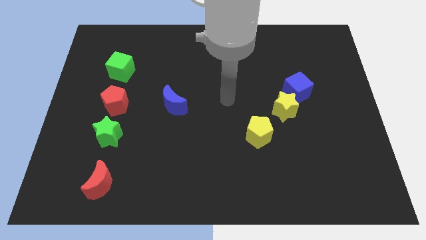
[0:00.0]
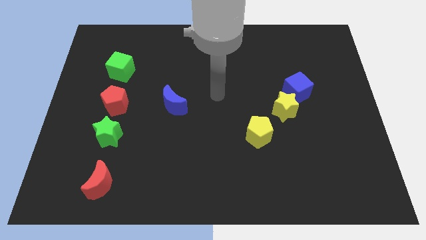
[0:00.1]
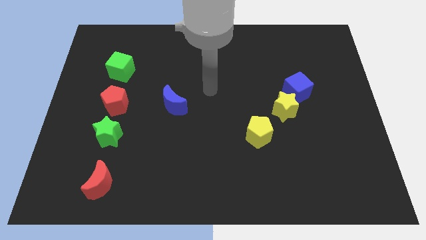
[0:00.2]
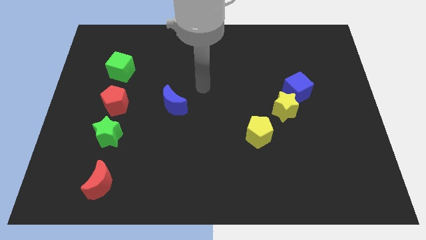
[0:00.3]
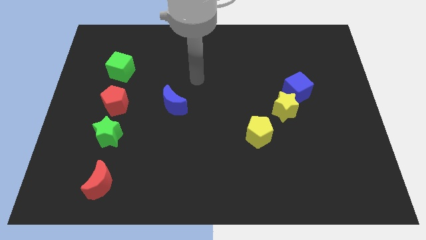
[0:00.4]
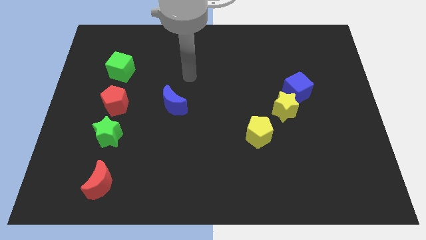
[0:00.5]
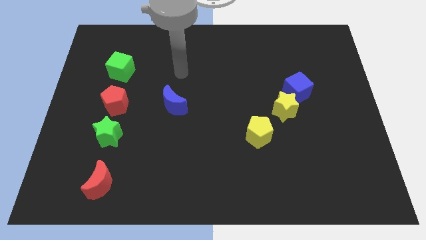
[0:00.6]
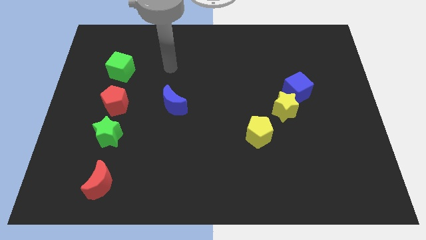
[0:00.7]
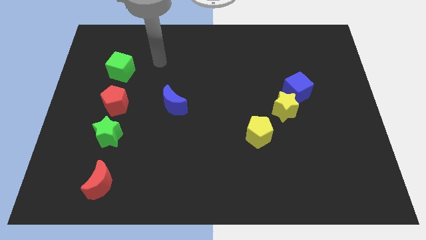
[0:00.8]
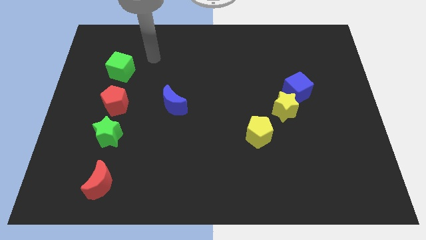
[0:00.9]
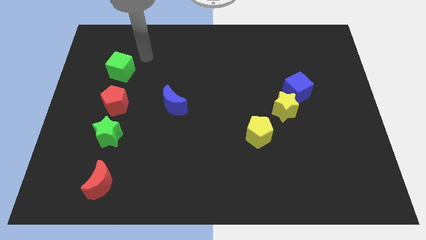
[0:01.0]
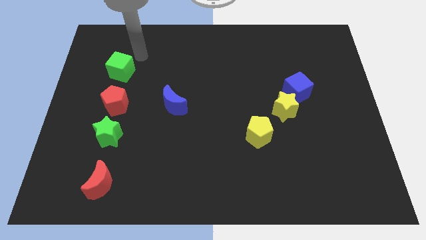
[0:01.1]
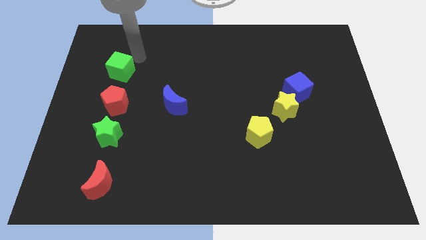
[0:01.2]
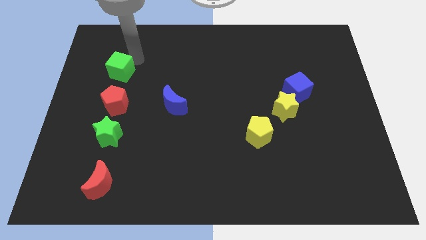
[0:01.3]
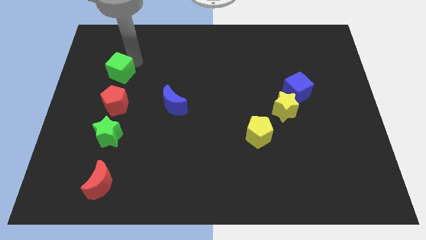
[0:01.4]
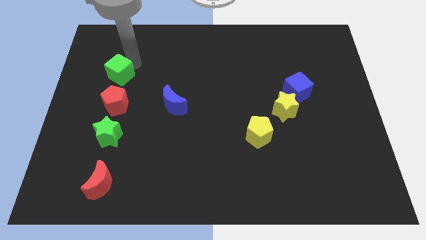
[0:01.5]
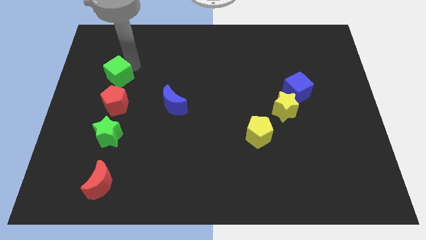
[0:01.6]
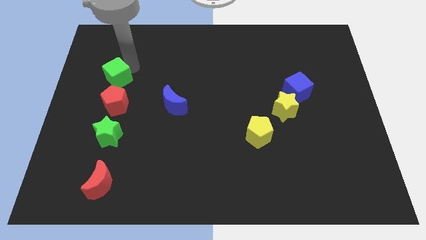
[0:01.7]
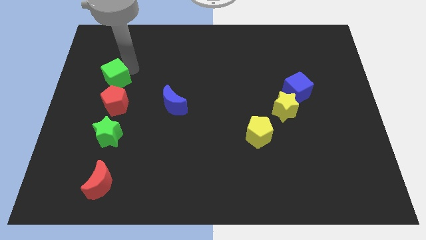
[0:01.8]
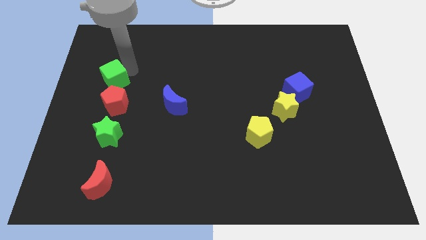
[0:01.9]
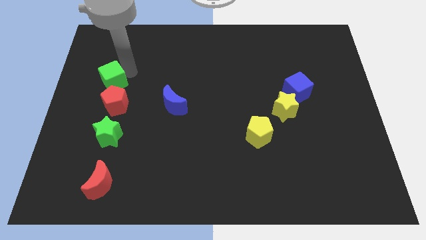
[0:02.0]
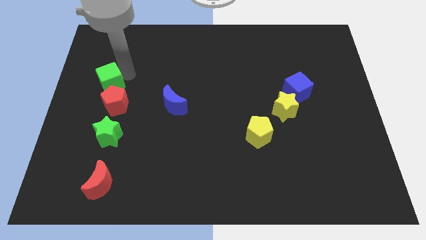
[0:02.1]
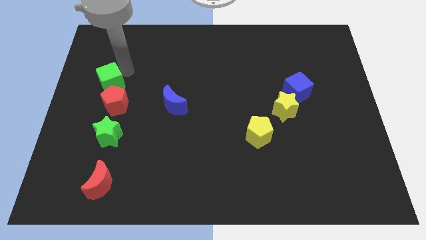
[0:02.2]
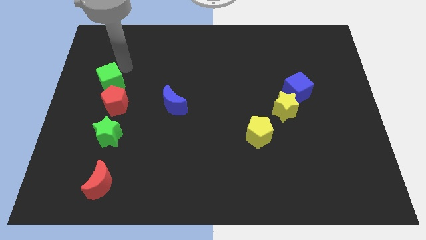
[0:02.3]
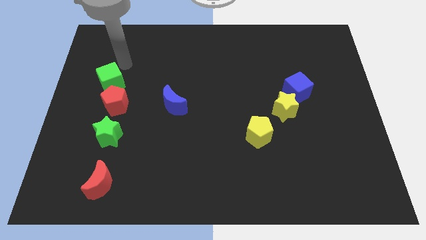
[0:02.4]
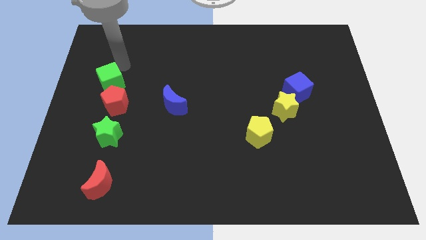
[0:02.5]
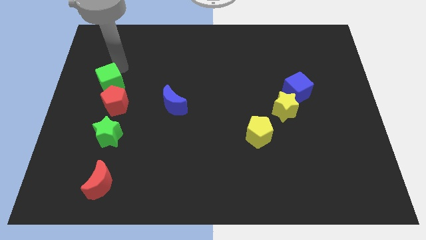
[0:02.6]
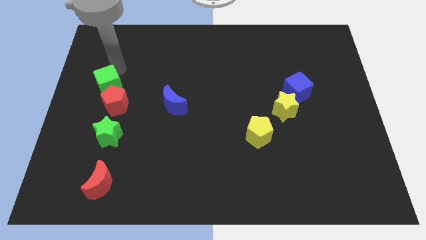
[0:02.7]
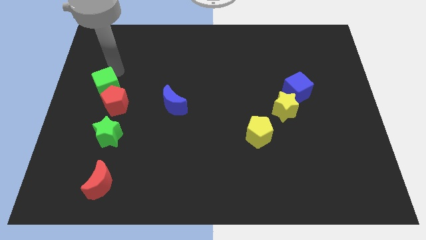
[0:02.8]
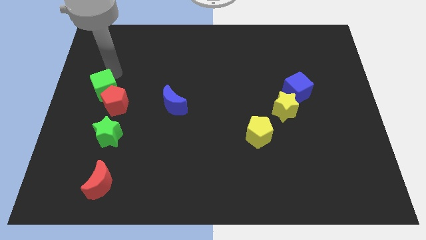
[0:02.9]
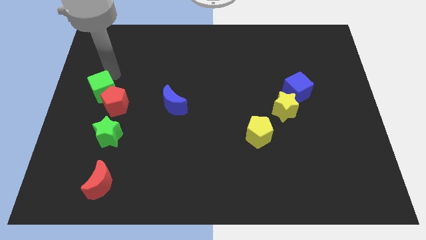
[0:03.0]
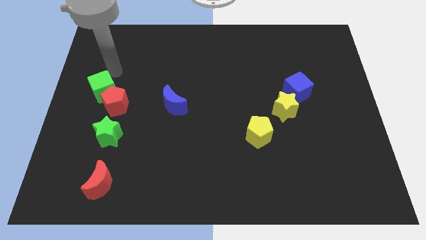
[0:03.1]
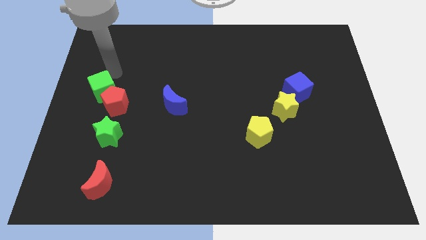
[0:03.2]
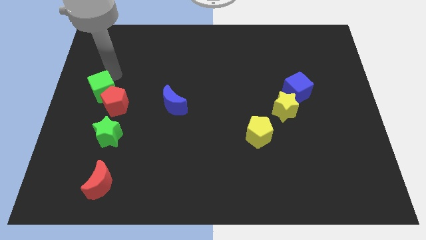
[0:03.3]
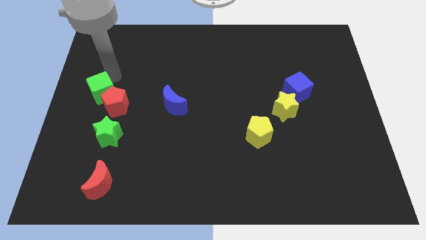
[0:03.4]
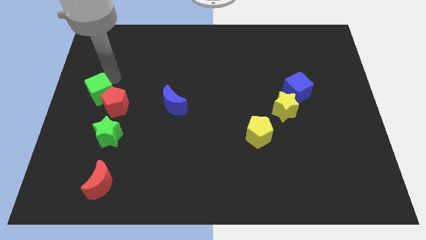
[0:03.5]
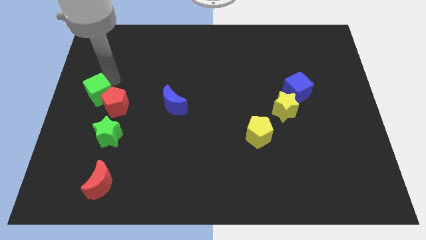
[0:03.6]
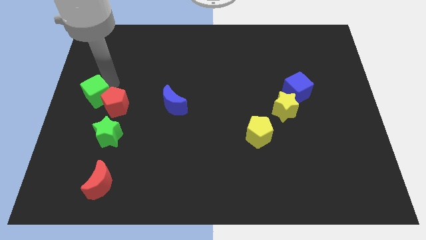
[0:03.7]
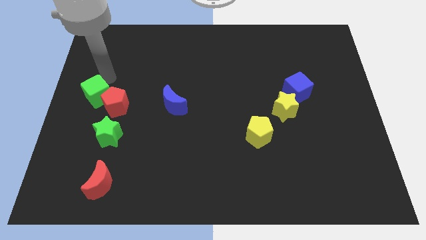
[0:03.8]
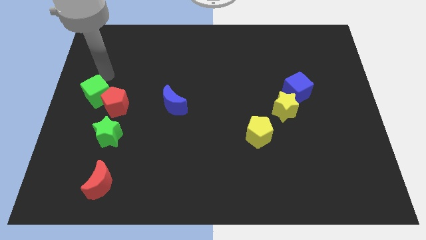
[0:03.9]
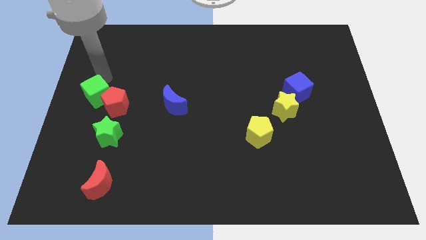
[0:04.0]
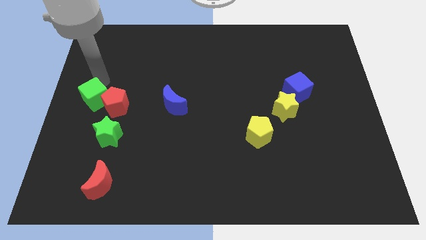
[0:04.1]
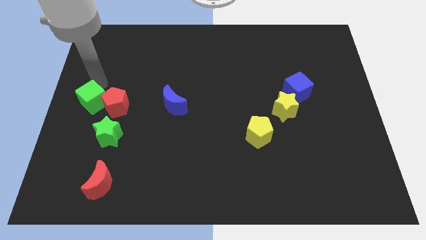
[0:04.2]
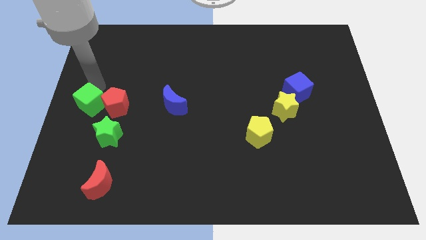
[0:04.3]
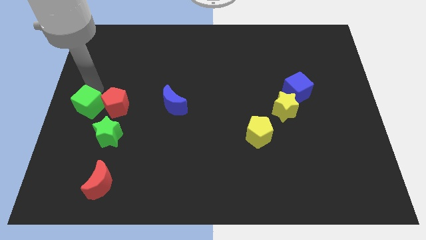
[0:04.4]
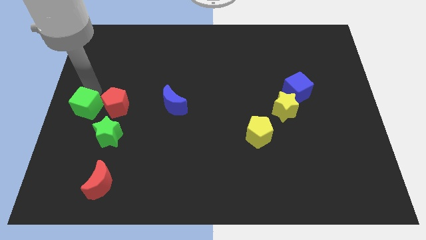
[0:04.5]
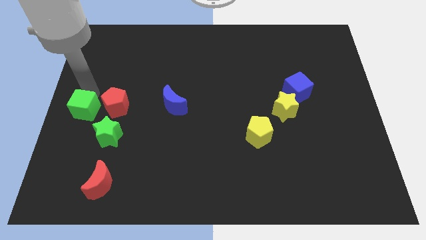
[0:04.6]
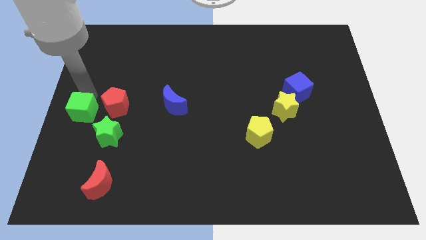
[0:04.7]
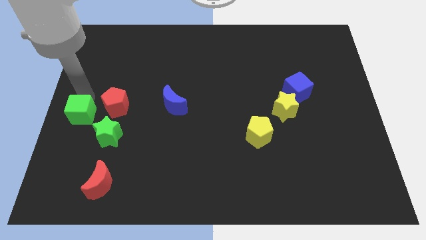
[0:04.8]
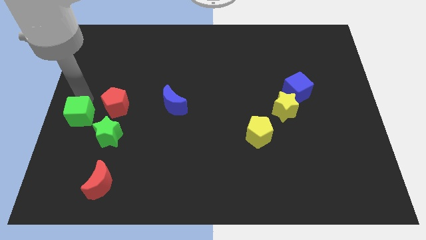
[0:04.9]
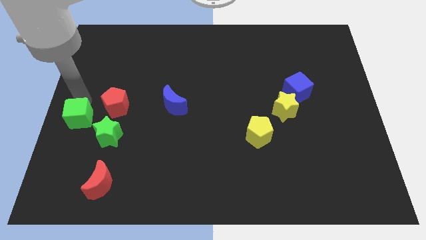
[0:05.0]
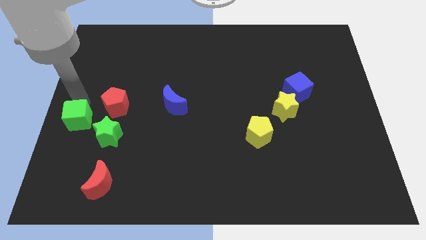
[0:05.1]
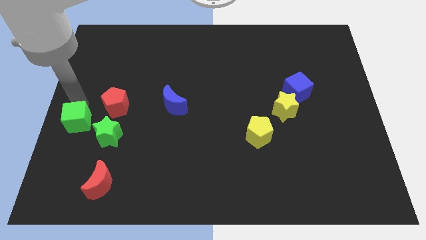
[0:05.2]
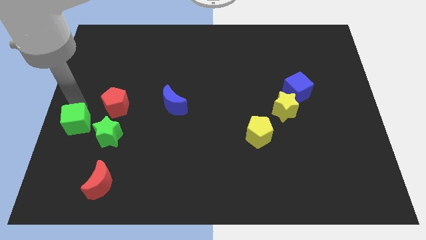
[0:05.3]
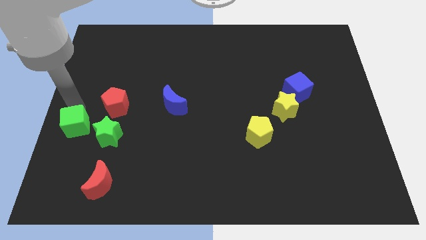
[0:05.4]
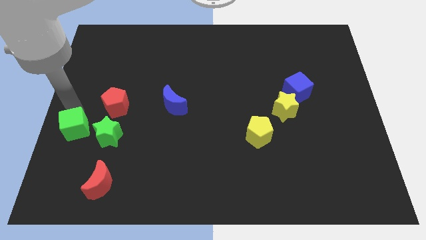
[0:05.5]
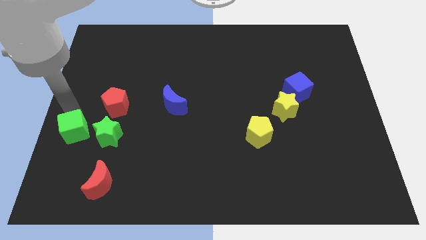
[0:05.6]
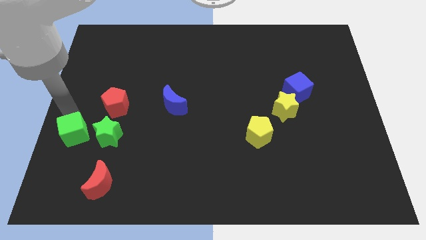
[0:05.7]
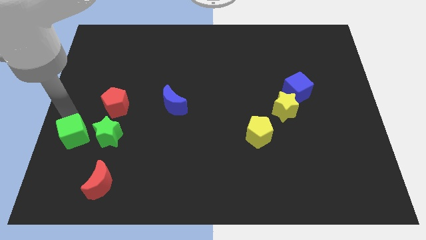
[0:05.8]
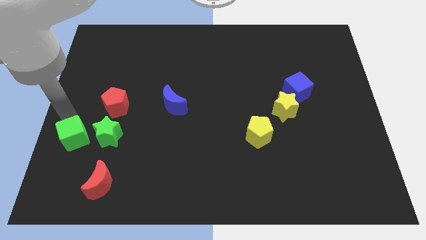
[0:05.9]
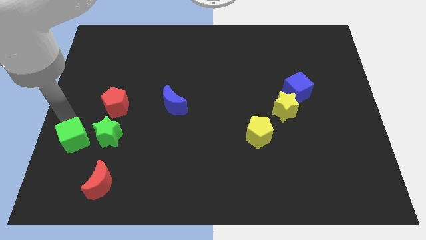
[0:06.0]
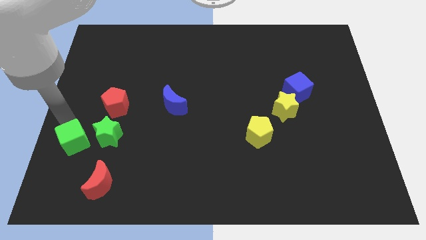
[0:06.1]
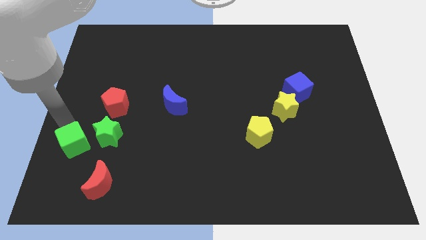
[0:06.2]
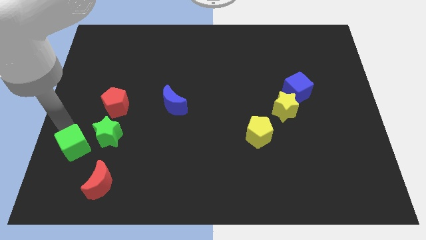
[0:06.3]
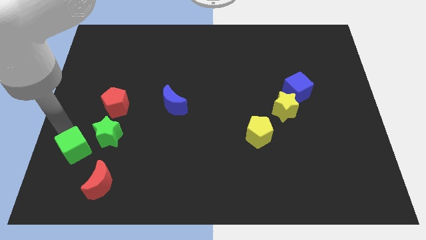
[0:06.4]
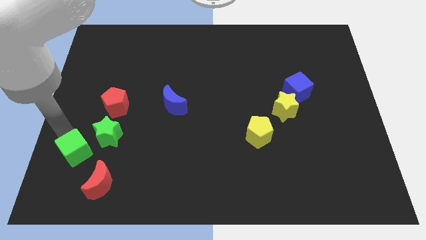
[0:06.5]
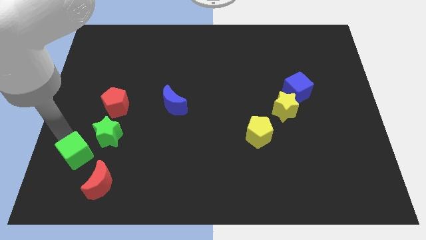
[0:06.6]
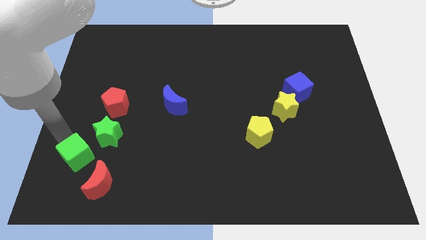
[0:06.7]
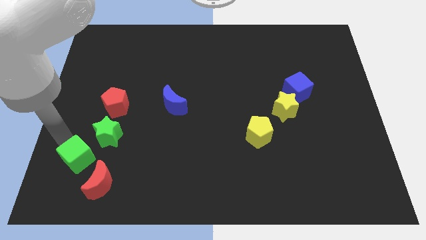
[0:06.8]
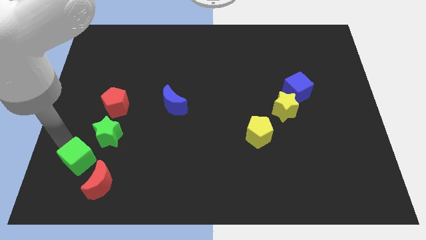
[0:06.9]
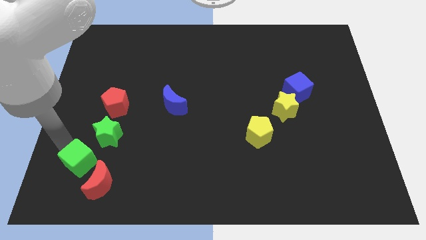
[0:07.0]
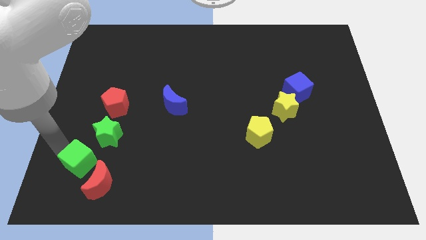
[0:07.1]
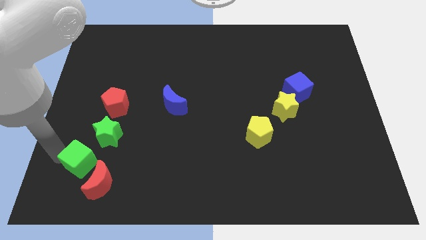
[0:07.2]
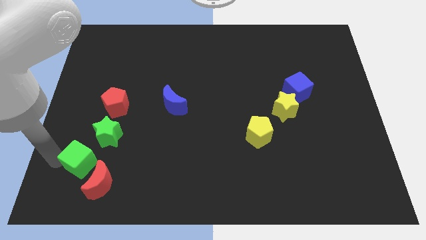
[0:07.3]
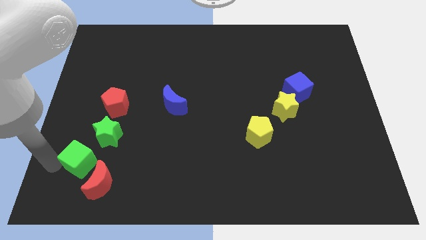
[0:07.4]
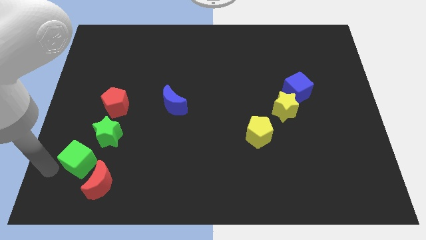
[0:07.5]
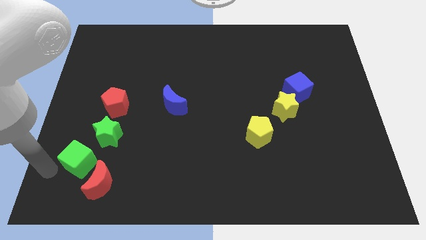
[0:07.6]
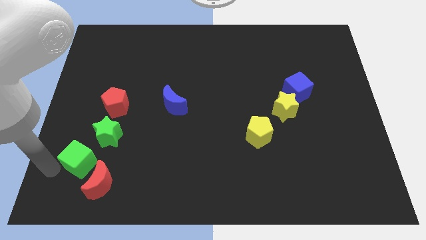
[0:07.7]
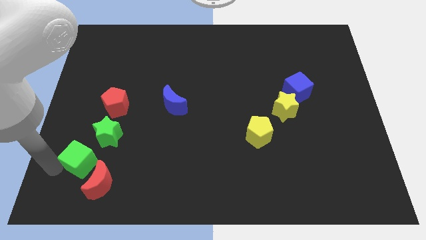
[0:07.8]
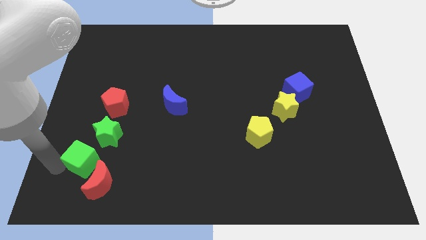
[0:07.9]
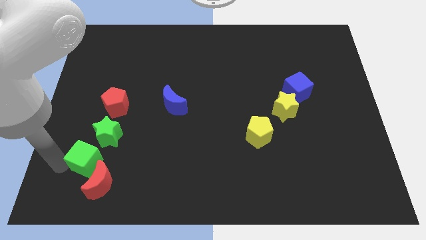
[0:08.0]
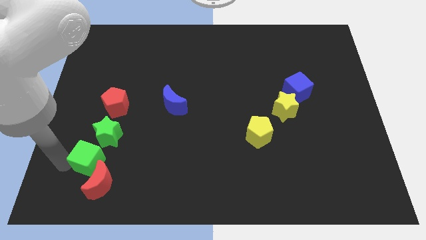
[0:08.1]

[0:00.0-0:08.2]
move the green cube to the red moon
